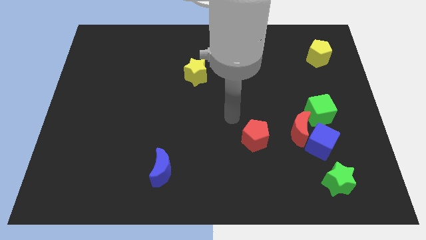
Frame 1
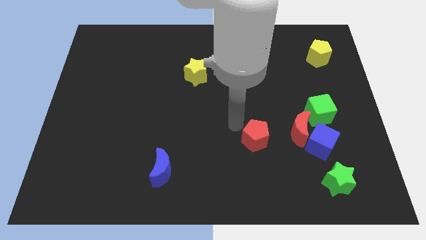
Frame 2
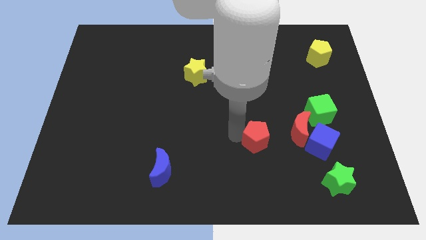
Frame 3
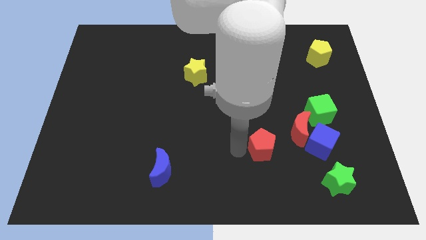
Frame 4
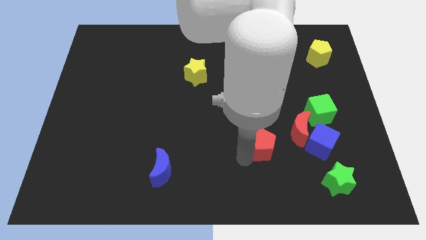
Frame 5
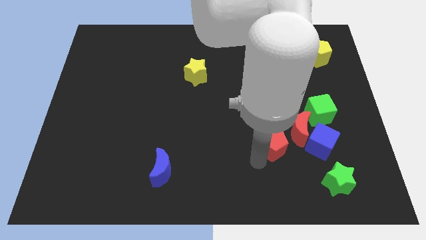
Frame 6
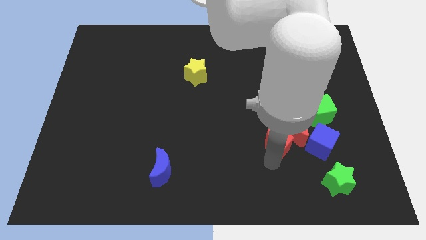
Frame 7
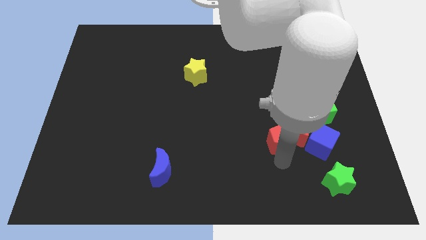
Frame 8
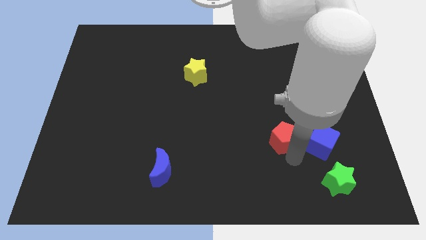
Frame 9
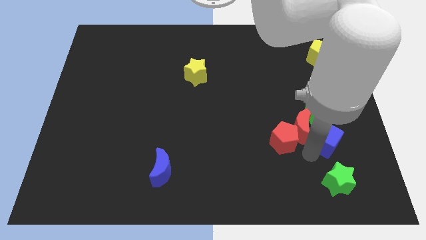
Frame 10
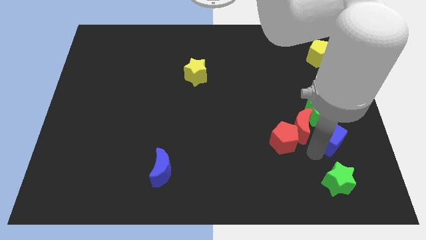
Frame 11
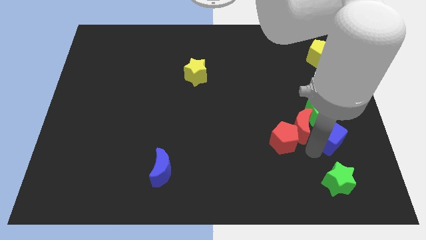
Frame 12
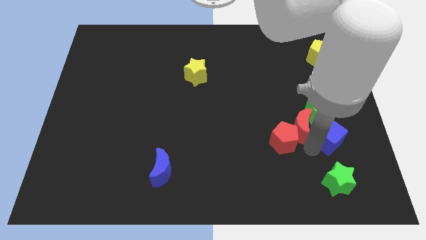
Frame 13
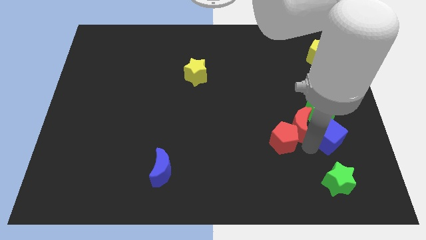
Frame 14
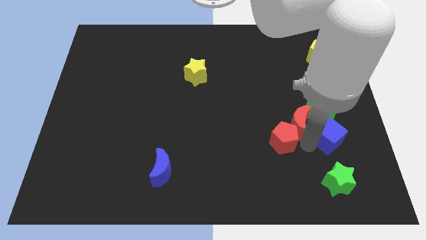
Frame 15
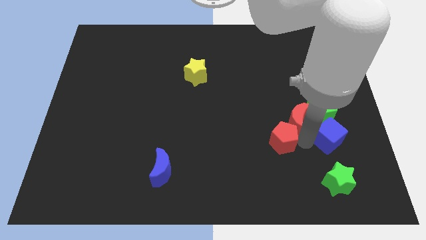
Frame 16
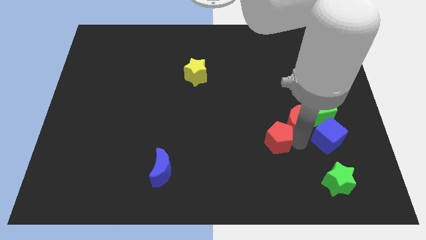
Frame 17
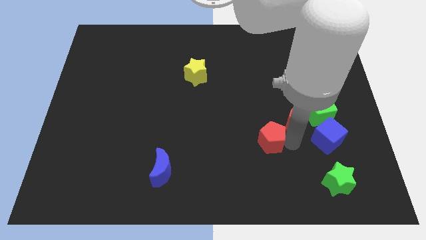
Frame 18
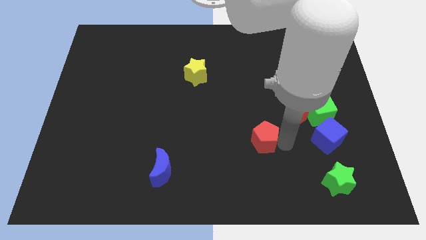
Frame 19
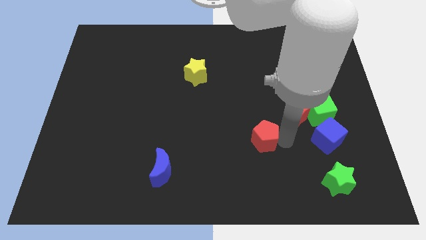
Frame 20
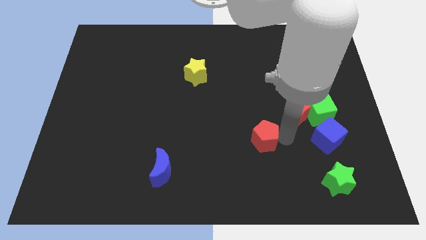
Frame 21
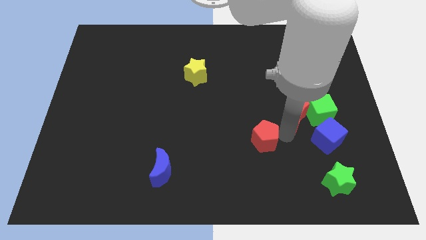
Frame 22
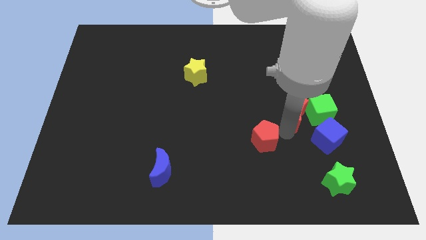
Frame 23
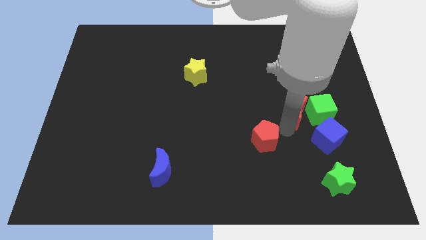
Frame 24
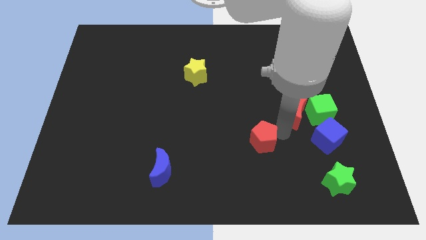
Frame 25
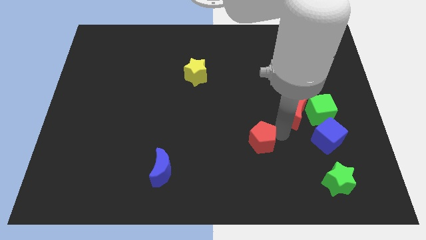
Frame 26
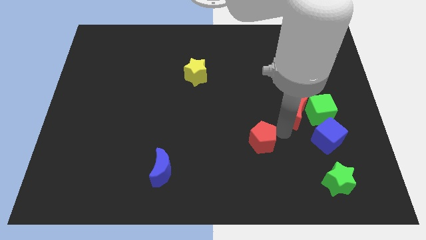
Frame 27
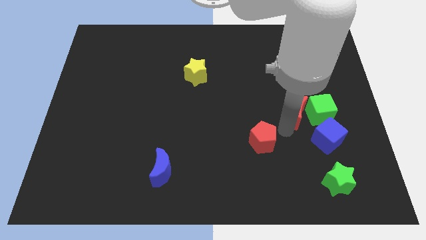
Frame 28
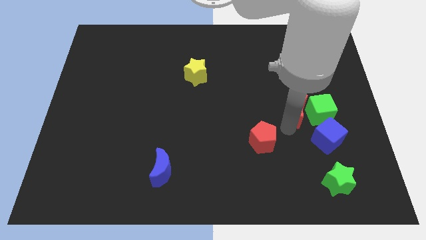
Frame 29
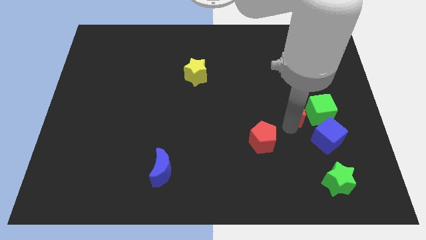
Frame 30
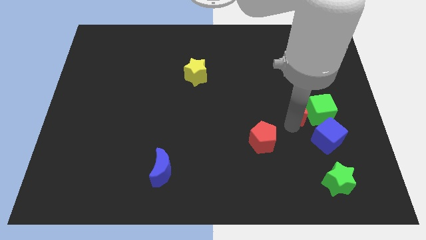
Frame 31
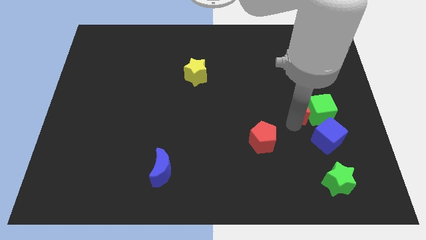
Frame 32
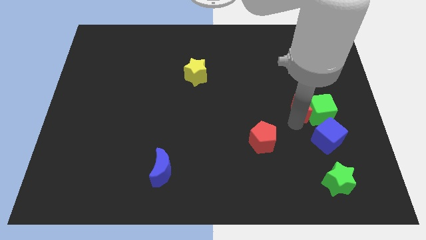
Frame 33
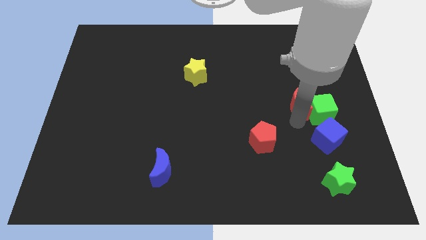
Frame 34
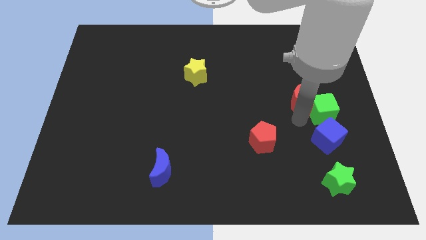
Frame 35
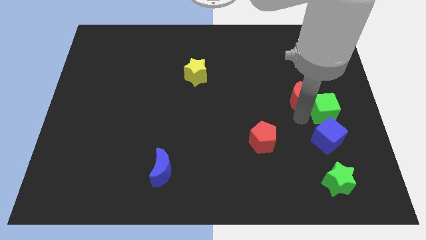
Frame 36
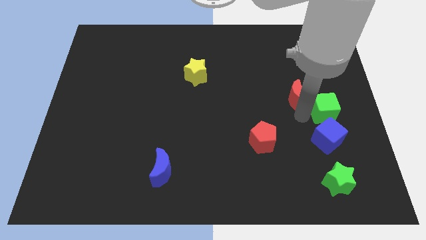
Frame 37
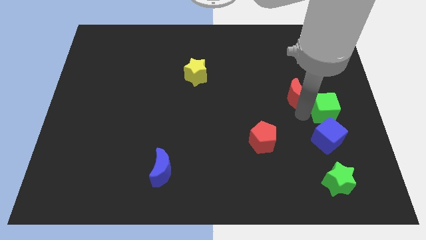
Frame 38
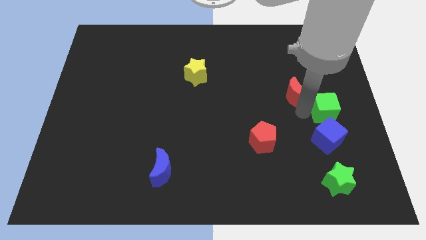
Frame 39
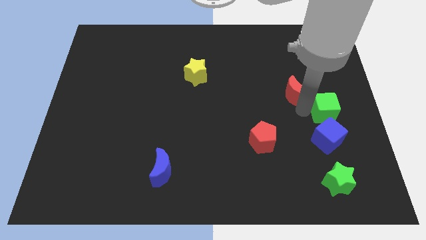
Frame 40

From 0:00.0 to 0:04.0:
separate the red moon from the group

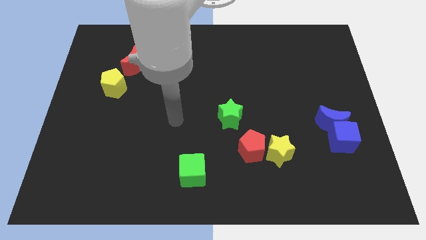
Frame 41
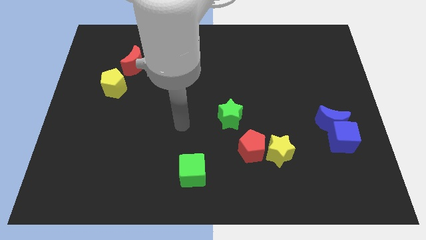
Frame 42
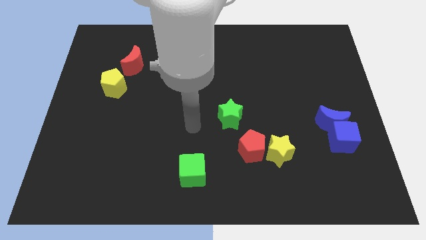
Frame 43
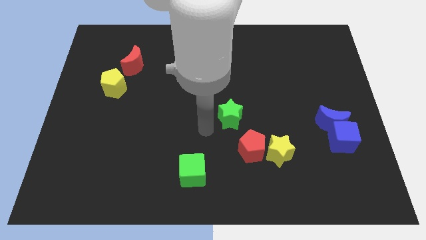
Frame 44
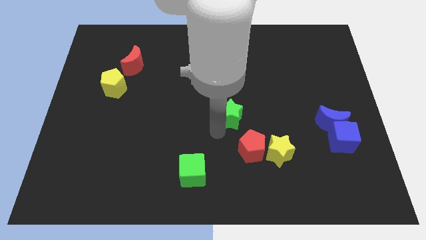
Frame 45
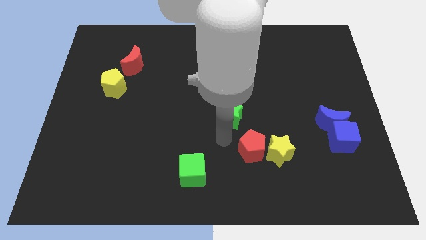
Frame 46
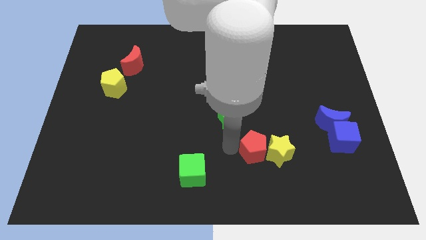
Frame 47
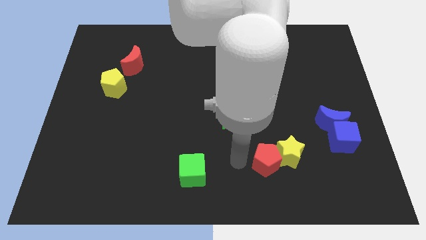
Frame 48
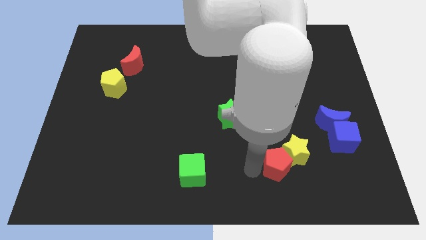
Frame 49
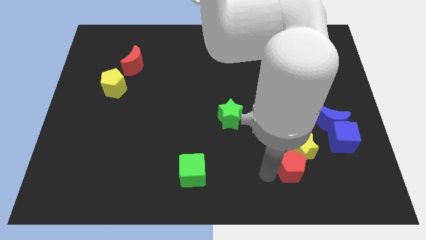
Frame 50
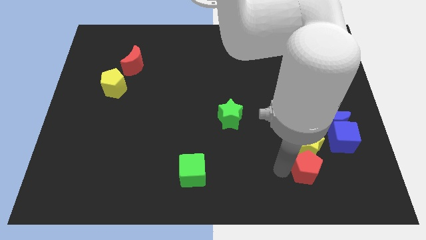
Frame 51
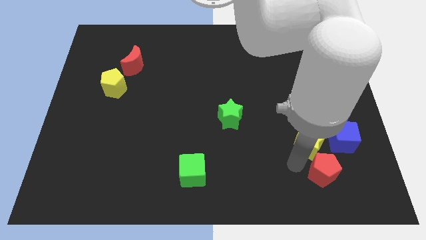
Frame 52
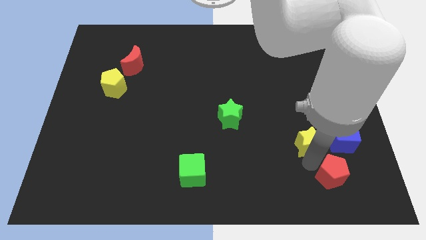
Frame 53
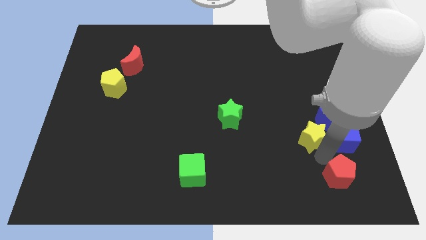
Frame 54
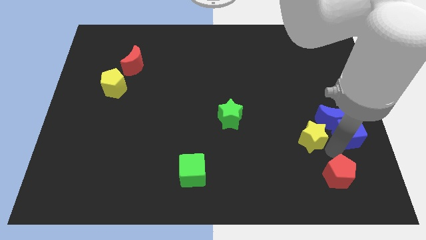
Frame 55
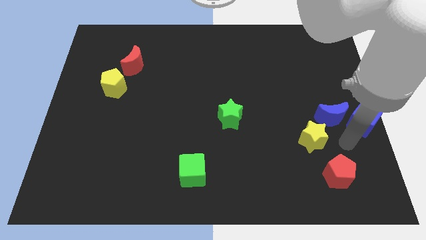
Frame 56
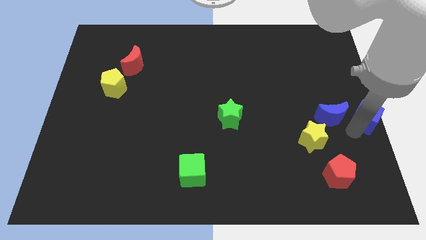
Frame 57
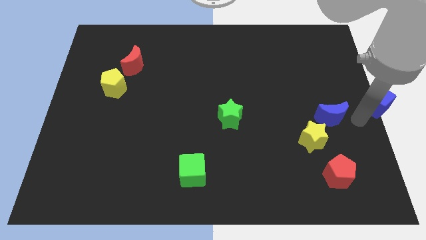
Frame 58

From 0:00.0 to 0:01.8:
pull the blue moon apart from the blue cube

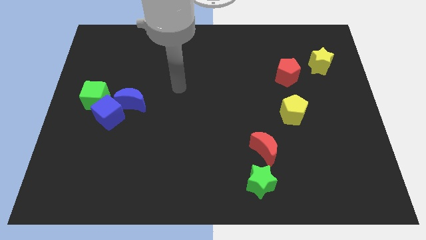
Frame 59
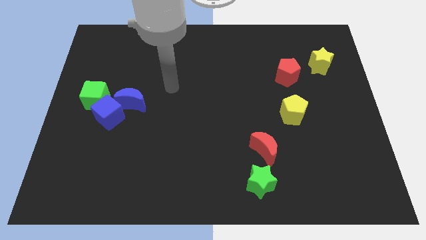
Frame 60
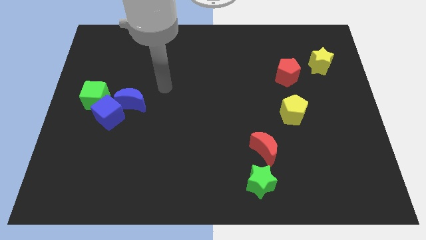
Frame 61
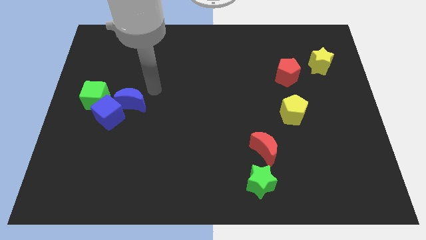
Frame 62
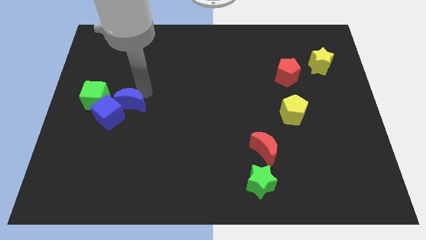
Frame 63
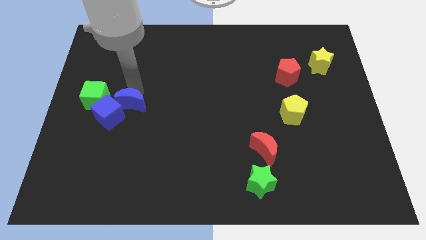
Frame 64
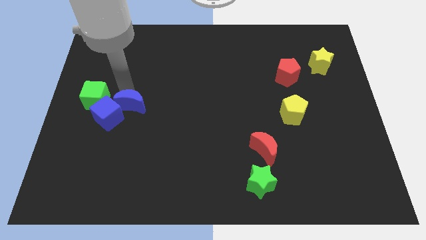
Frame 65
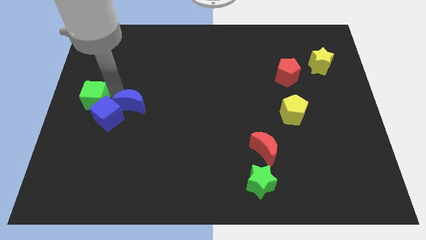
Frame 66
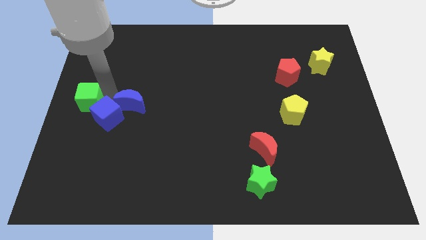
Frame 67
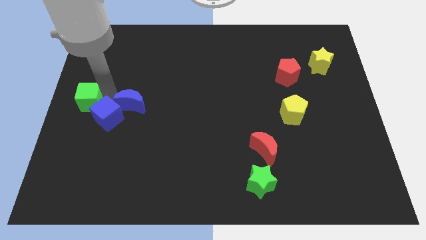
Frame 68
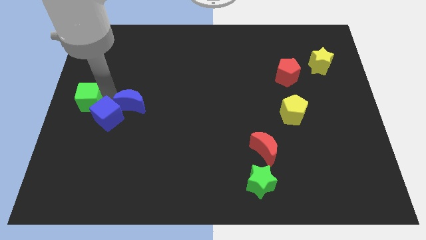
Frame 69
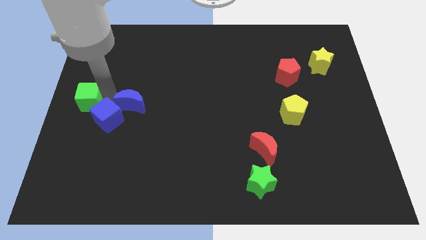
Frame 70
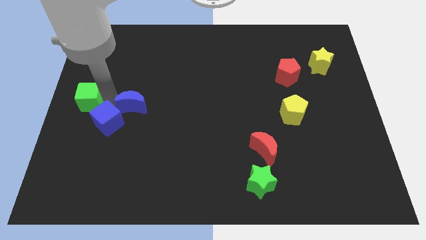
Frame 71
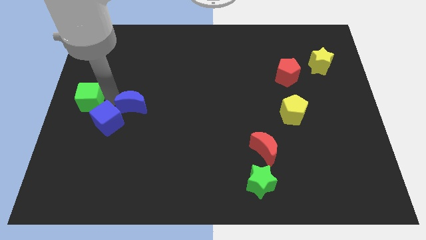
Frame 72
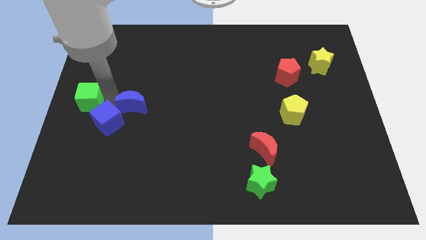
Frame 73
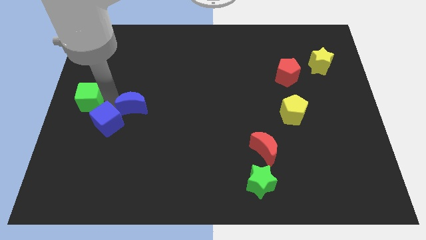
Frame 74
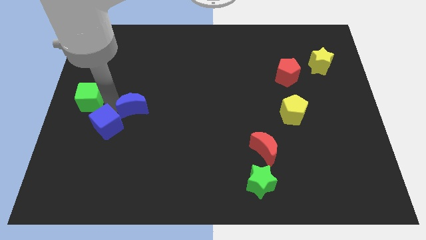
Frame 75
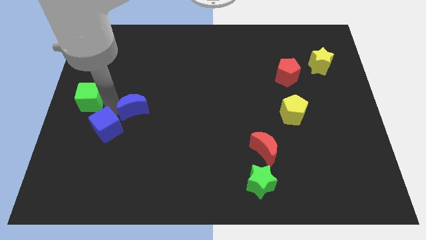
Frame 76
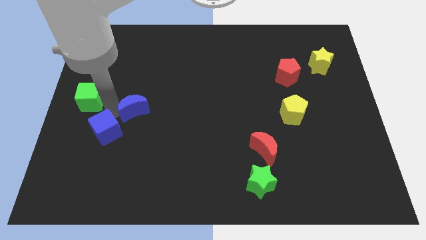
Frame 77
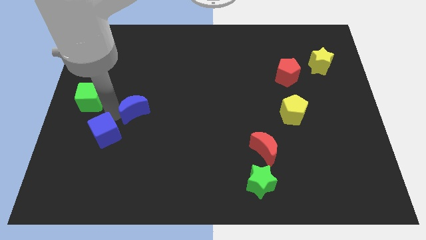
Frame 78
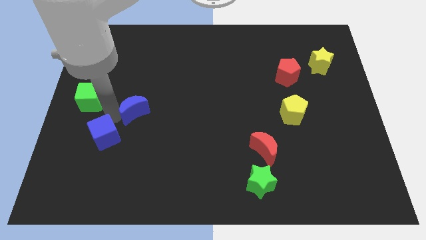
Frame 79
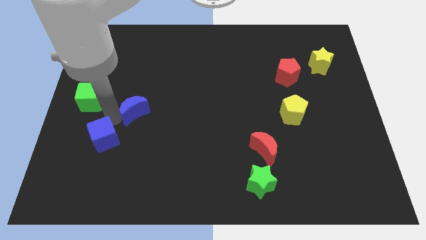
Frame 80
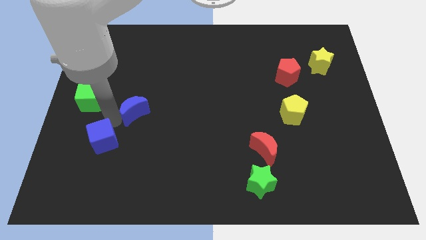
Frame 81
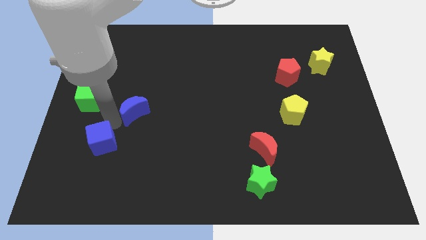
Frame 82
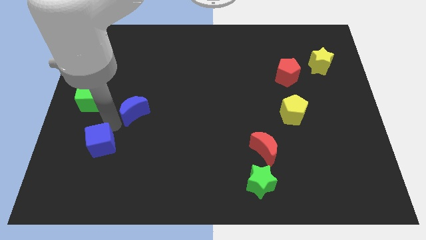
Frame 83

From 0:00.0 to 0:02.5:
pull the blue cube apart from the blue moon and green cube

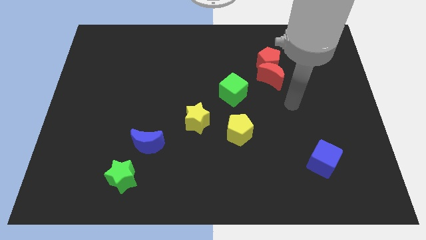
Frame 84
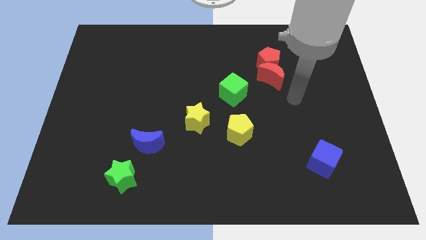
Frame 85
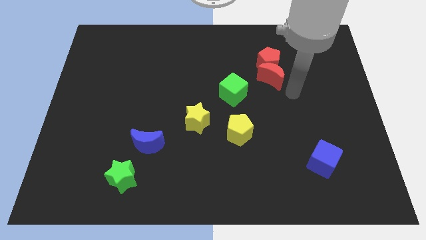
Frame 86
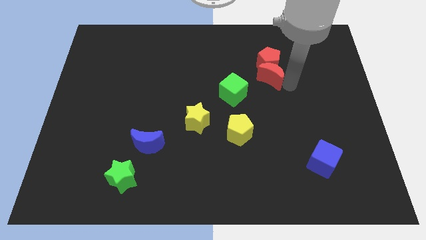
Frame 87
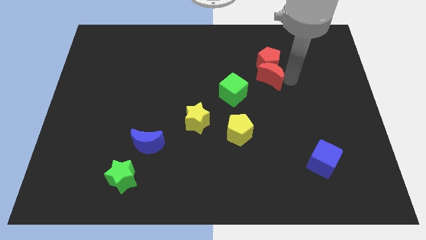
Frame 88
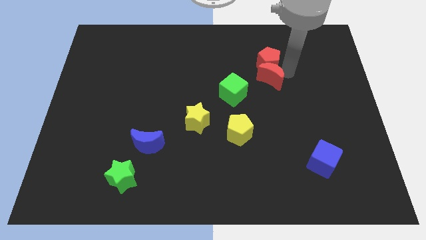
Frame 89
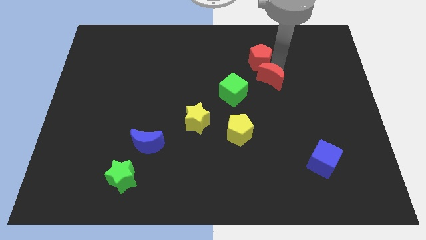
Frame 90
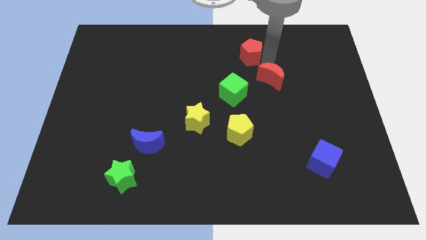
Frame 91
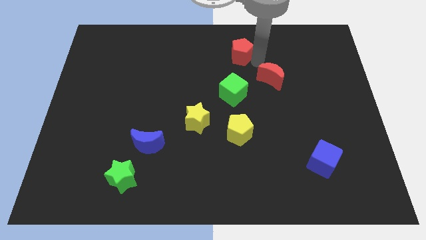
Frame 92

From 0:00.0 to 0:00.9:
separate the red moon from the red pentagon

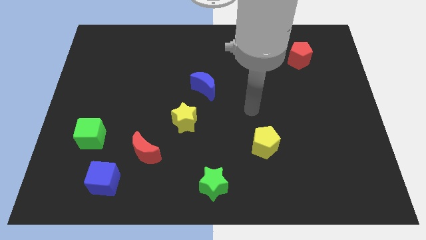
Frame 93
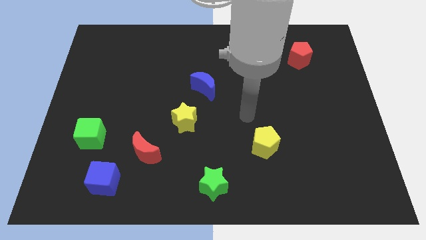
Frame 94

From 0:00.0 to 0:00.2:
move the red moon away from the blue cube
